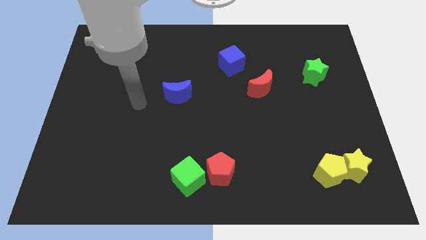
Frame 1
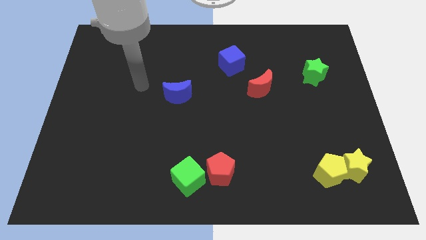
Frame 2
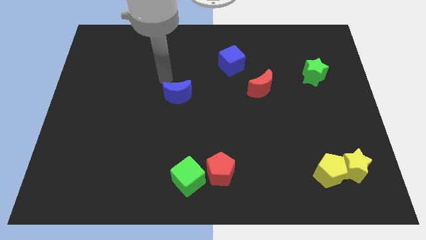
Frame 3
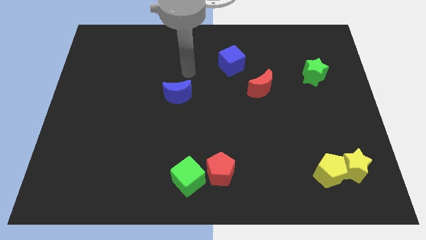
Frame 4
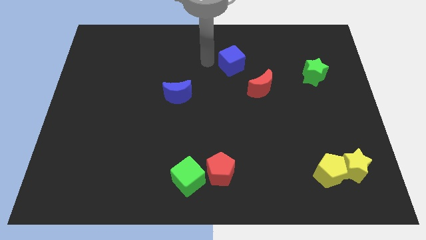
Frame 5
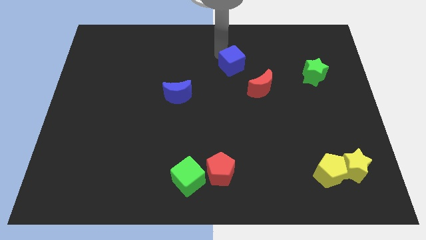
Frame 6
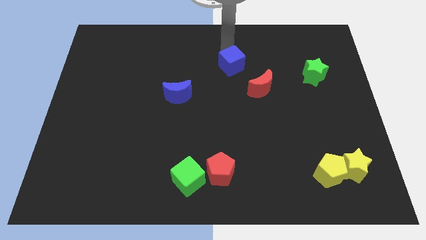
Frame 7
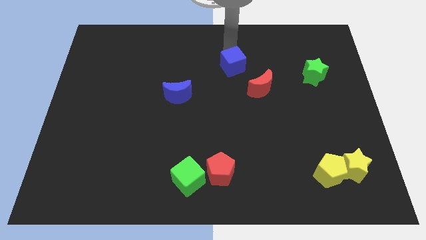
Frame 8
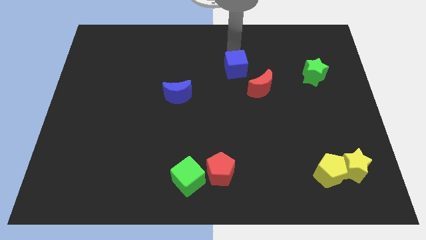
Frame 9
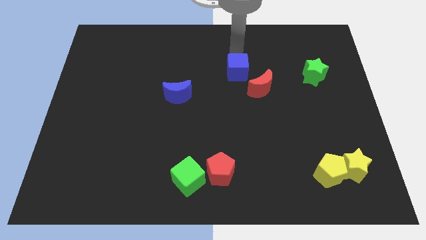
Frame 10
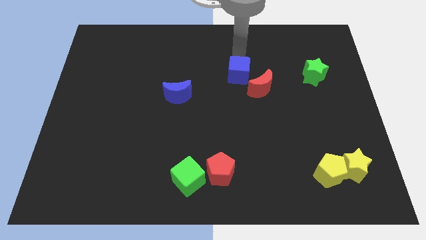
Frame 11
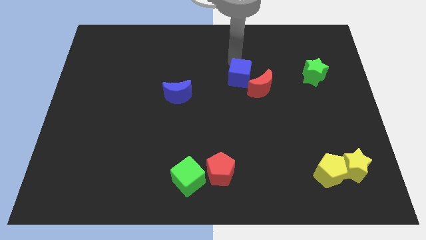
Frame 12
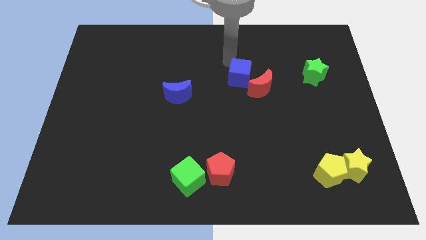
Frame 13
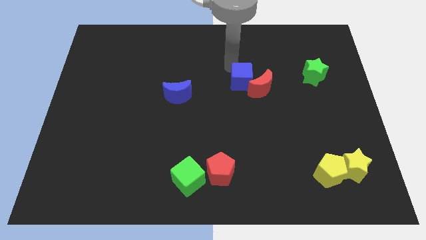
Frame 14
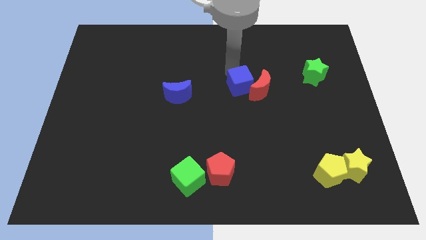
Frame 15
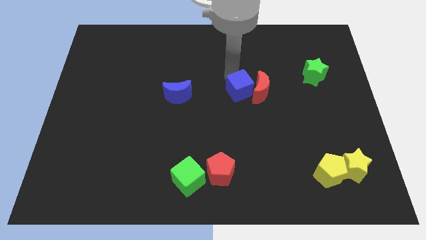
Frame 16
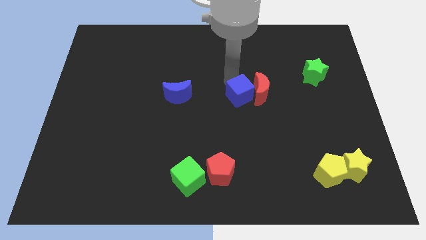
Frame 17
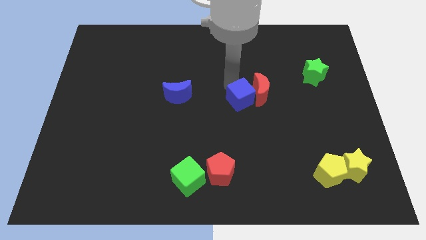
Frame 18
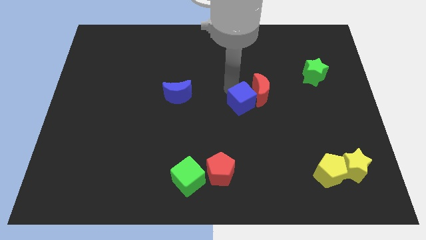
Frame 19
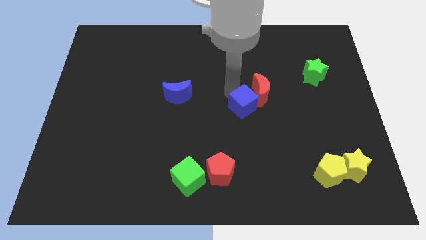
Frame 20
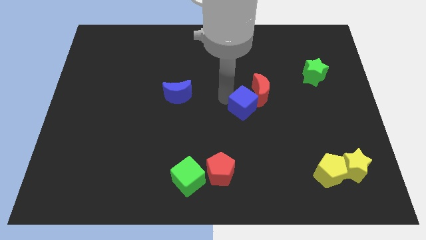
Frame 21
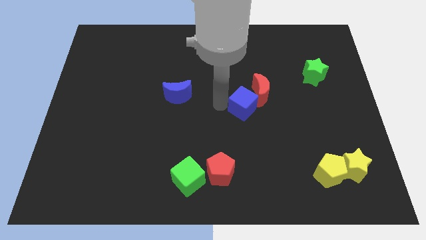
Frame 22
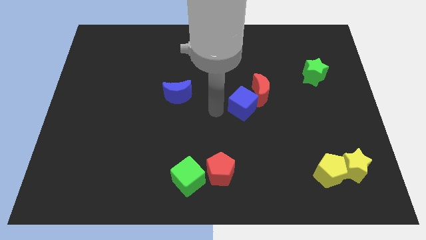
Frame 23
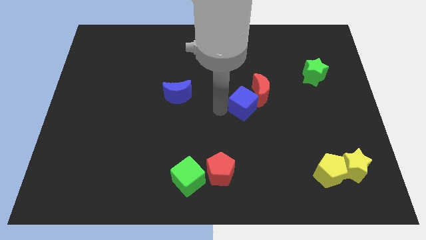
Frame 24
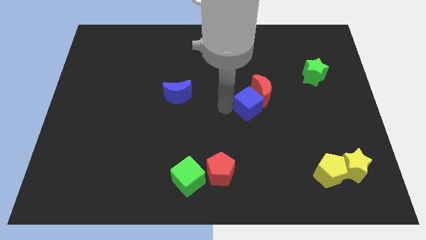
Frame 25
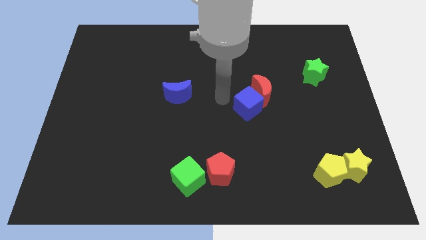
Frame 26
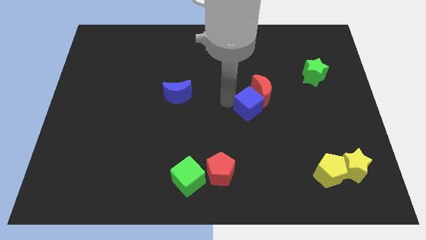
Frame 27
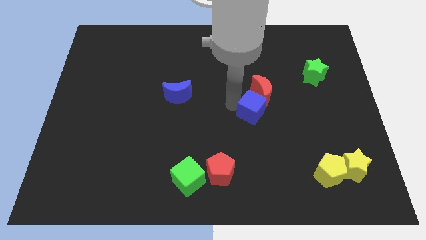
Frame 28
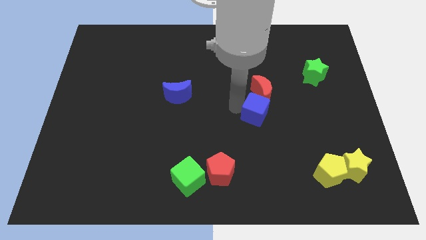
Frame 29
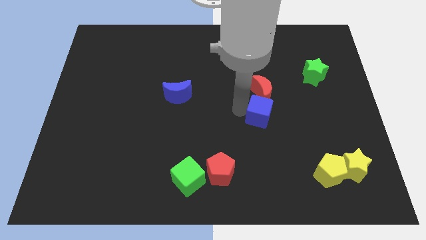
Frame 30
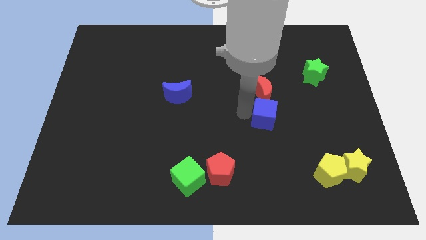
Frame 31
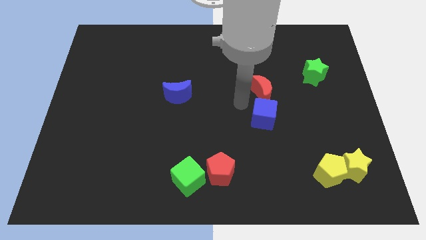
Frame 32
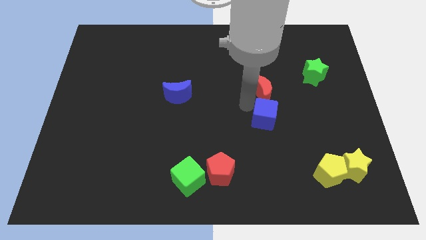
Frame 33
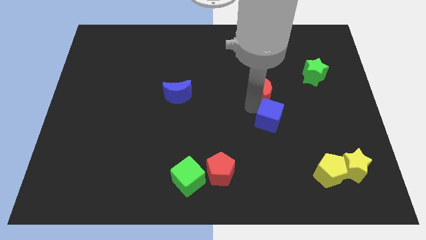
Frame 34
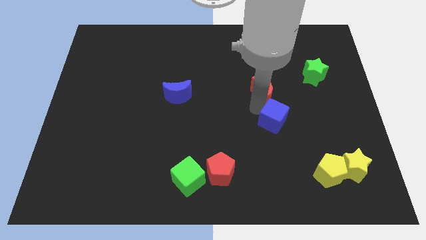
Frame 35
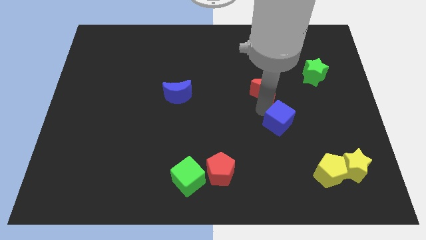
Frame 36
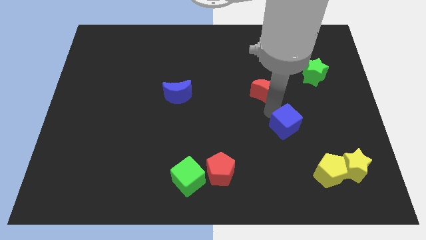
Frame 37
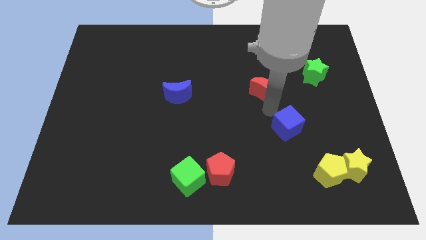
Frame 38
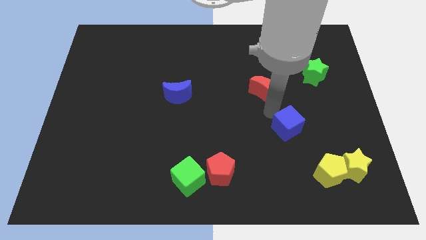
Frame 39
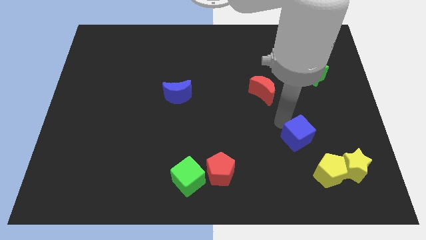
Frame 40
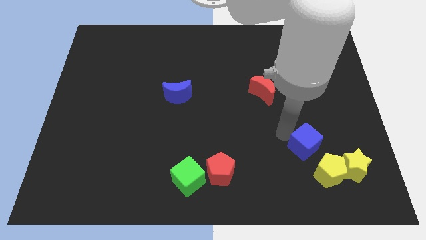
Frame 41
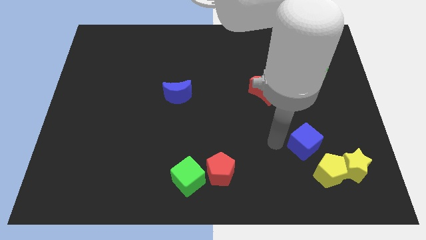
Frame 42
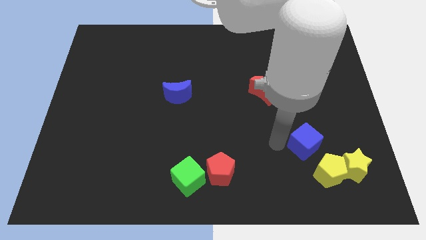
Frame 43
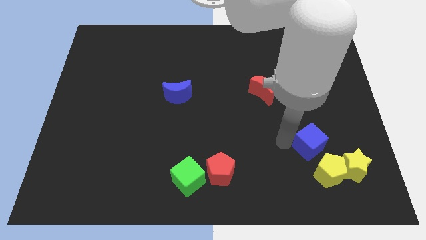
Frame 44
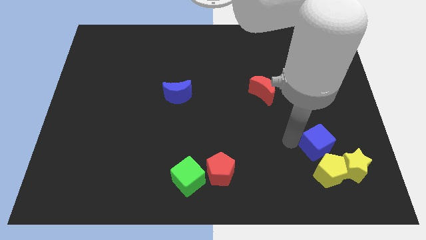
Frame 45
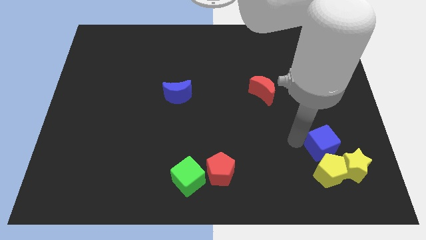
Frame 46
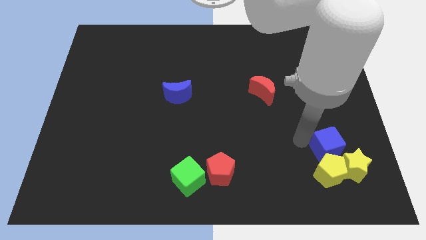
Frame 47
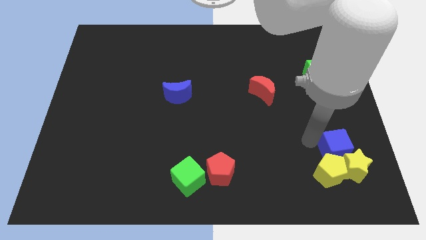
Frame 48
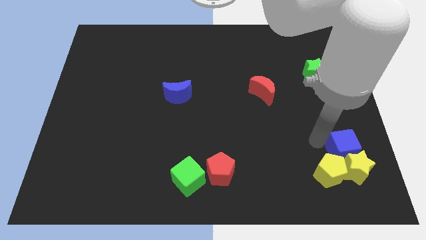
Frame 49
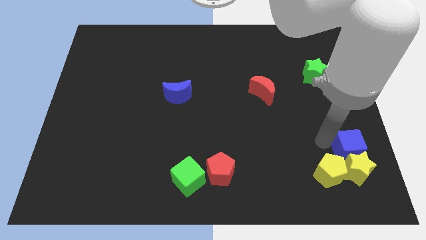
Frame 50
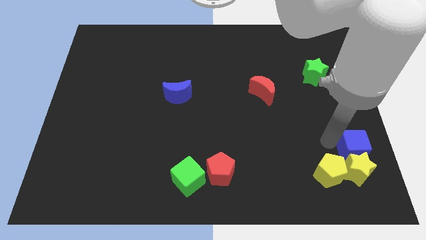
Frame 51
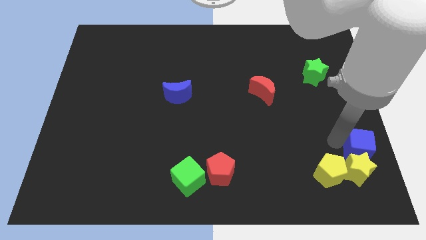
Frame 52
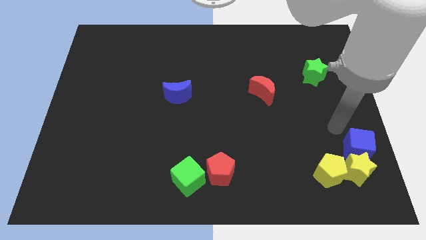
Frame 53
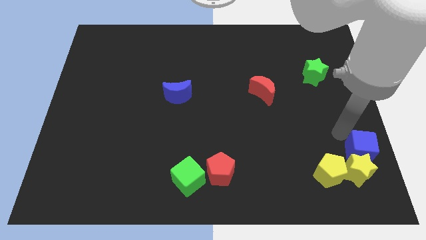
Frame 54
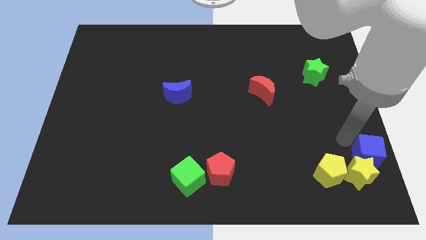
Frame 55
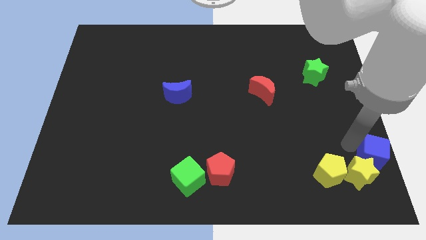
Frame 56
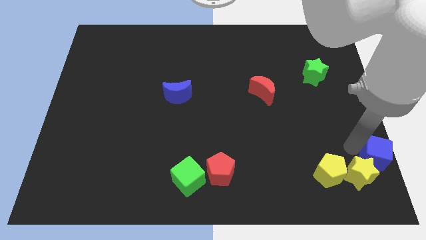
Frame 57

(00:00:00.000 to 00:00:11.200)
push the blue cube to the bottom right

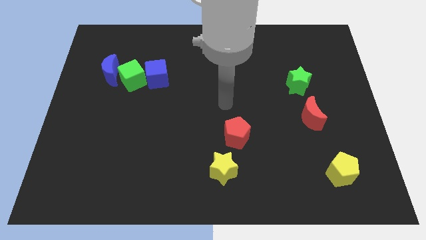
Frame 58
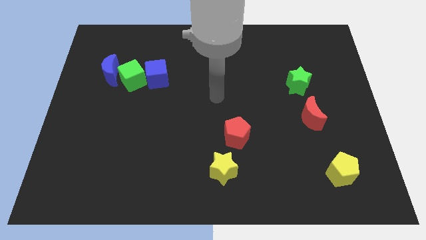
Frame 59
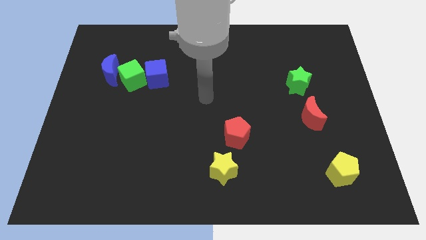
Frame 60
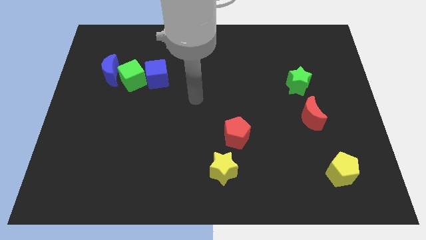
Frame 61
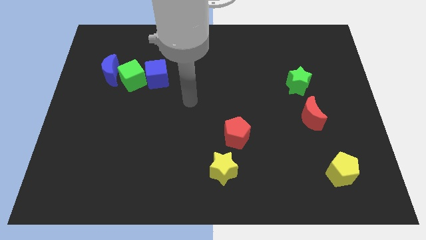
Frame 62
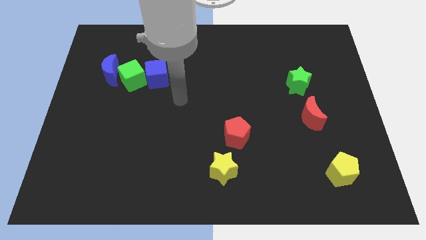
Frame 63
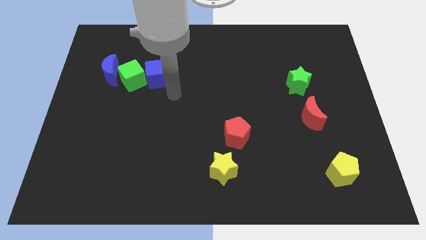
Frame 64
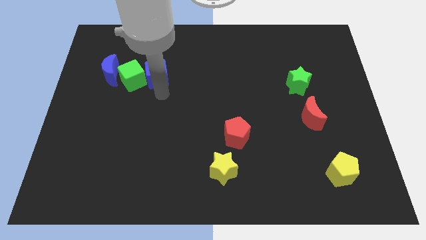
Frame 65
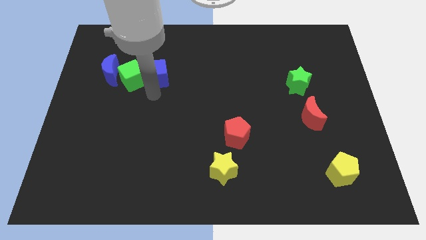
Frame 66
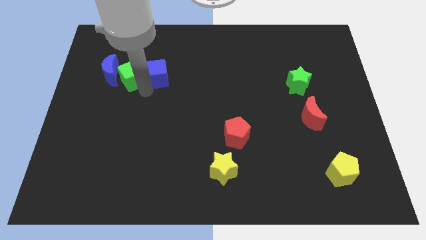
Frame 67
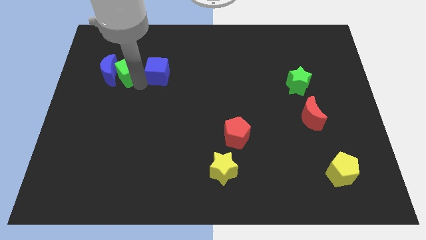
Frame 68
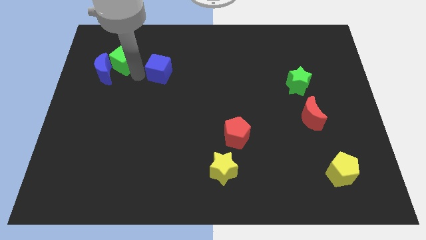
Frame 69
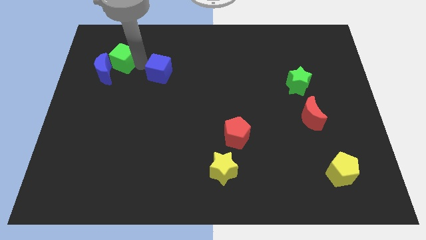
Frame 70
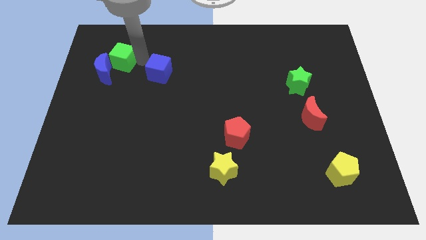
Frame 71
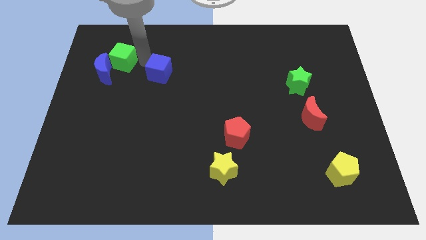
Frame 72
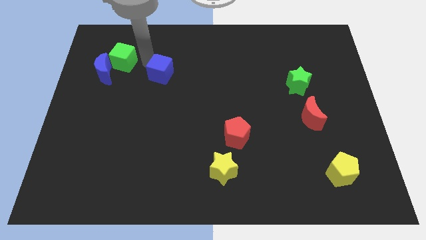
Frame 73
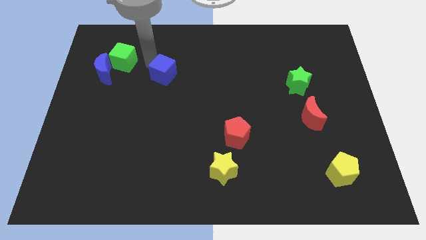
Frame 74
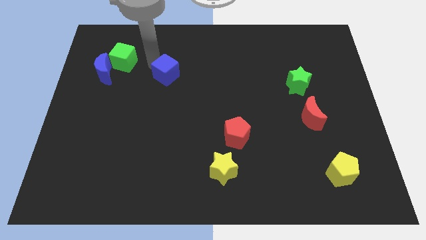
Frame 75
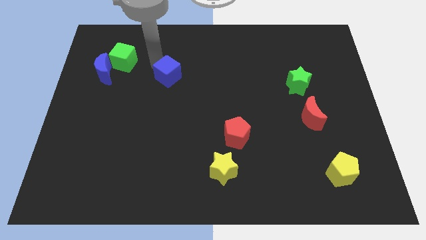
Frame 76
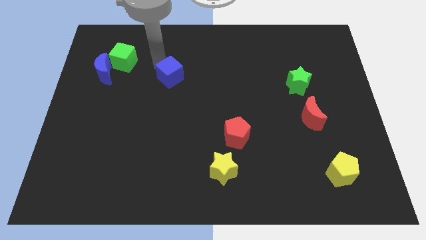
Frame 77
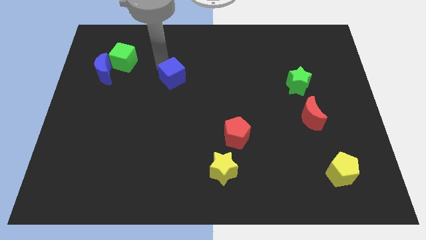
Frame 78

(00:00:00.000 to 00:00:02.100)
slide the blue cube to the middle of the board
